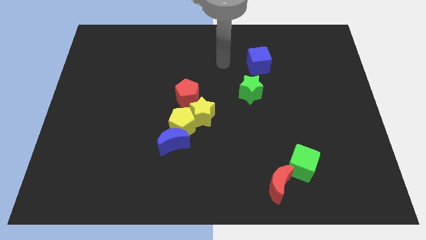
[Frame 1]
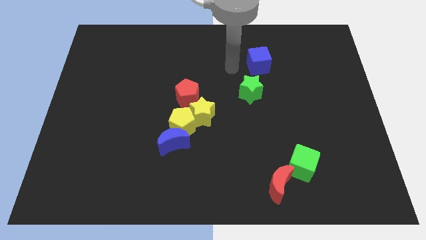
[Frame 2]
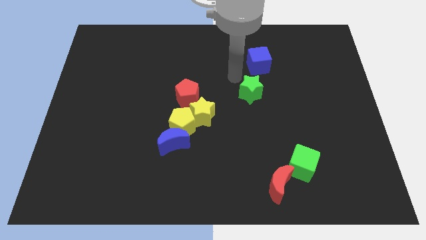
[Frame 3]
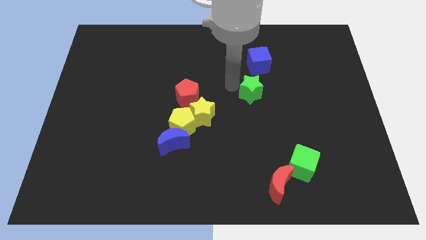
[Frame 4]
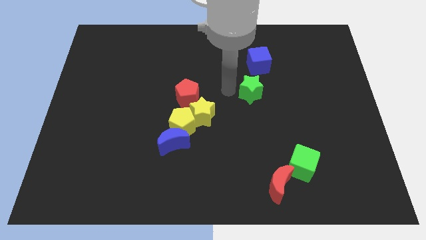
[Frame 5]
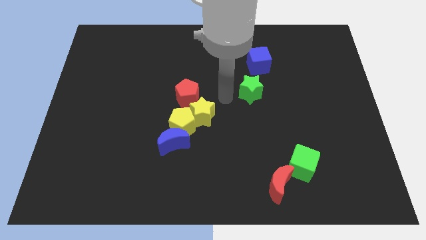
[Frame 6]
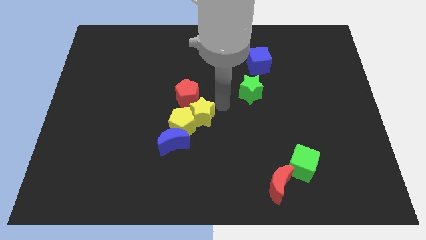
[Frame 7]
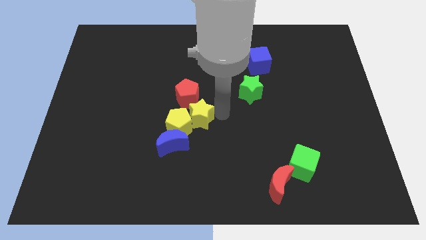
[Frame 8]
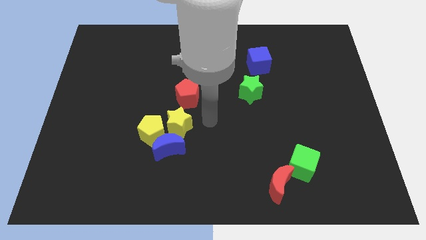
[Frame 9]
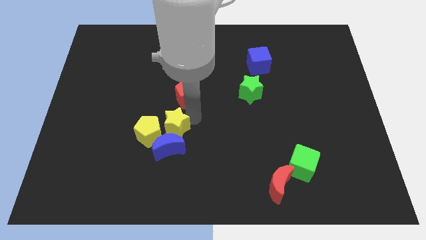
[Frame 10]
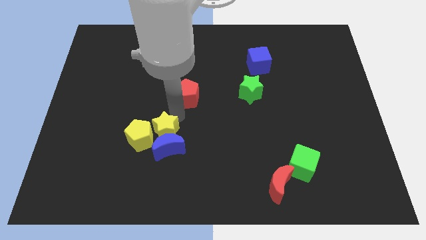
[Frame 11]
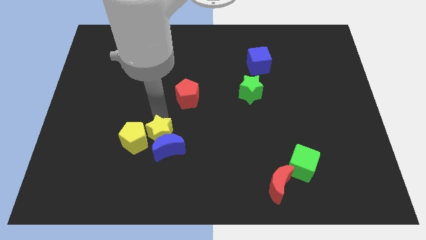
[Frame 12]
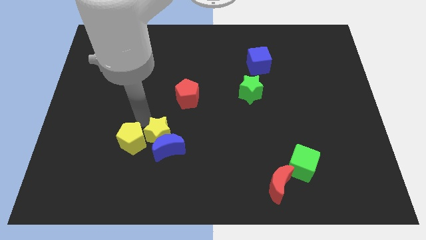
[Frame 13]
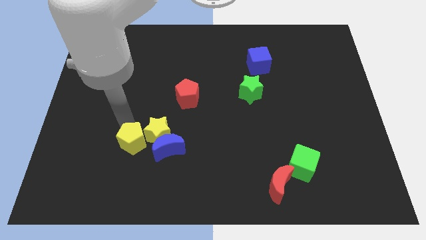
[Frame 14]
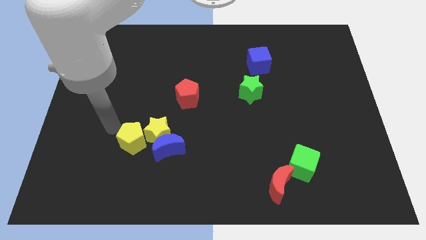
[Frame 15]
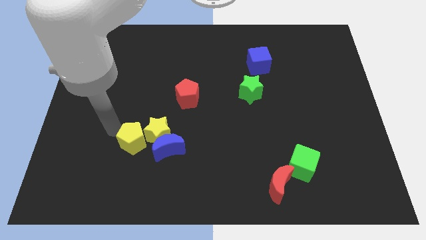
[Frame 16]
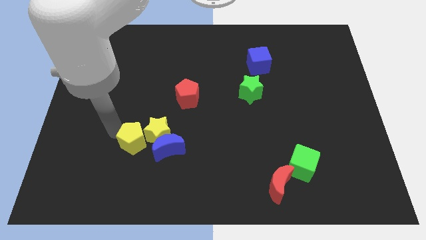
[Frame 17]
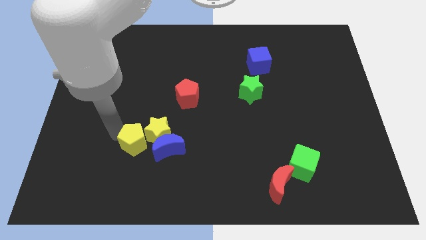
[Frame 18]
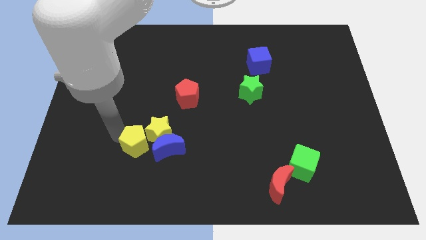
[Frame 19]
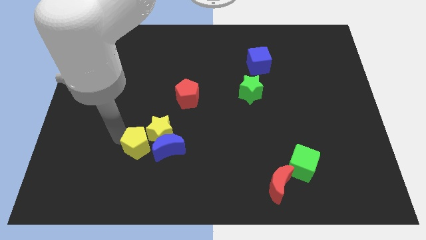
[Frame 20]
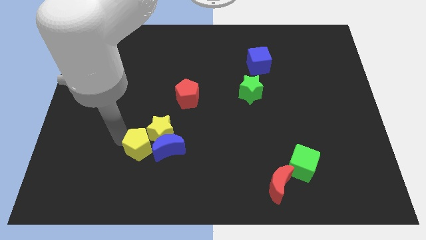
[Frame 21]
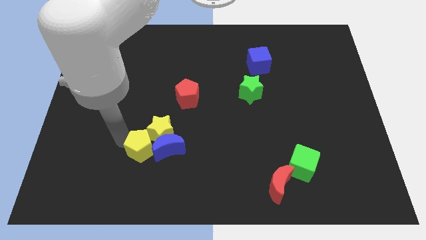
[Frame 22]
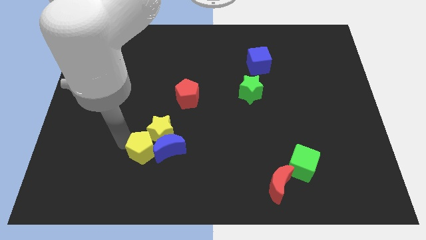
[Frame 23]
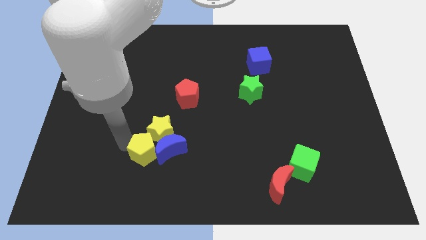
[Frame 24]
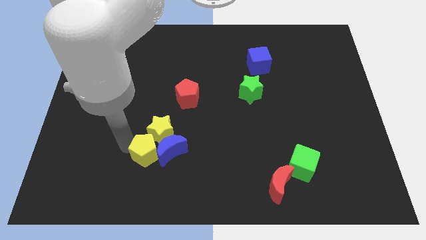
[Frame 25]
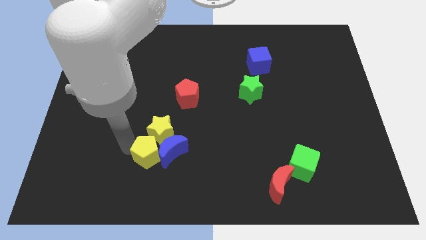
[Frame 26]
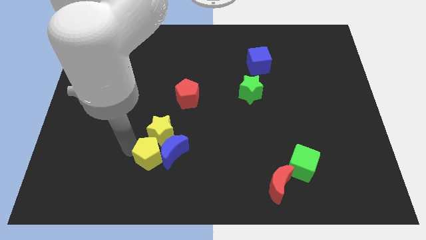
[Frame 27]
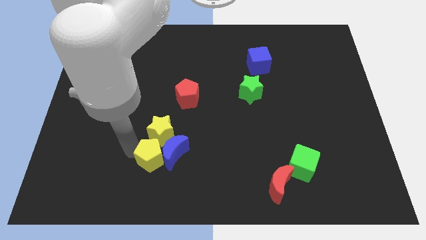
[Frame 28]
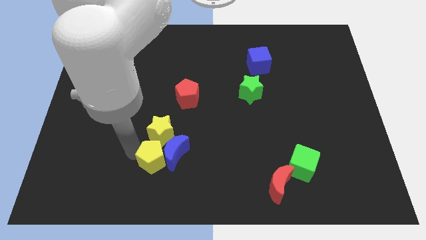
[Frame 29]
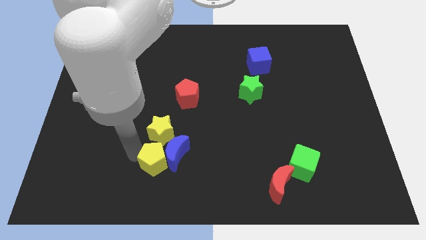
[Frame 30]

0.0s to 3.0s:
pull the yellow pentagon apart from the group of blocks

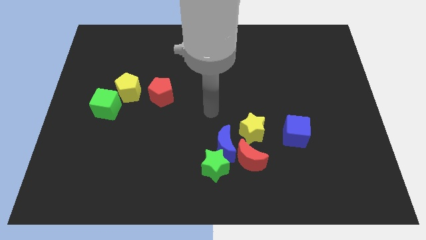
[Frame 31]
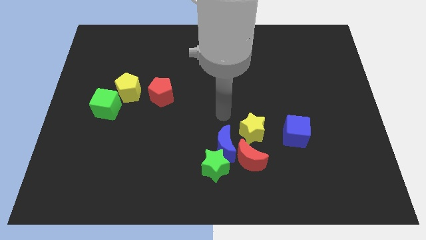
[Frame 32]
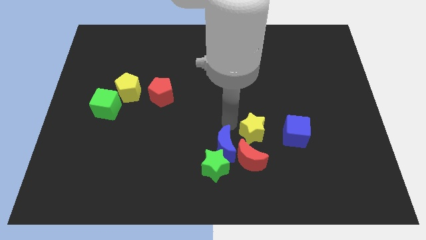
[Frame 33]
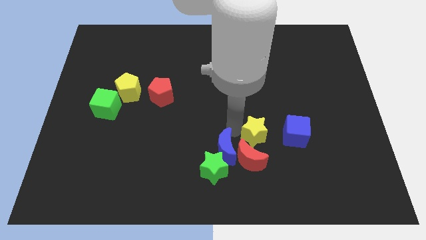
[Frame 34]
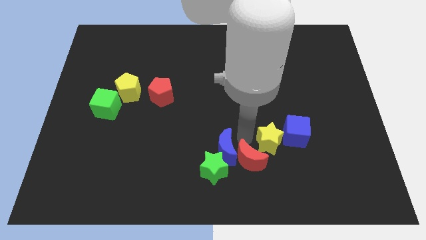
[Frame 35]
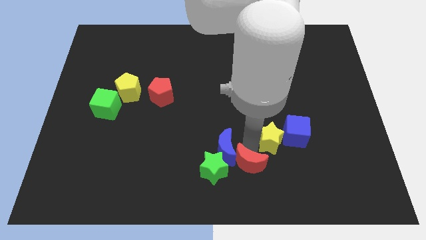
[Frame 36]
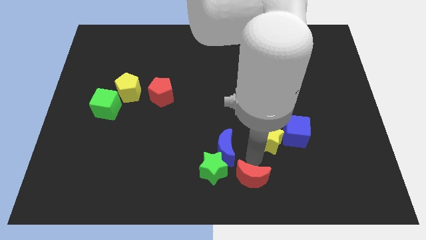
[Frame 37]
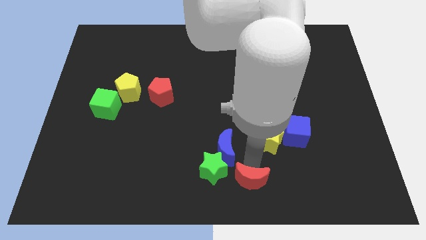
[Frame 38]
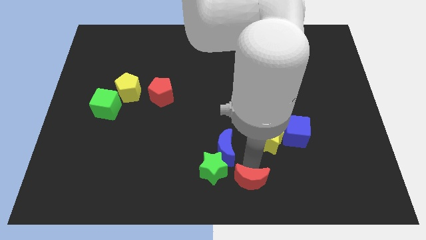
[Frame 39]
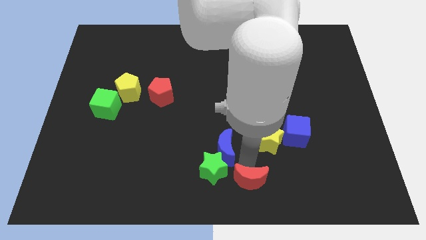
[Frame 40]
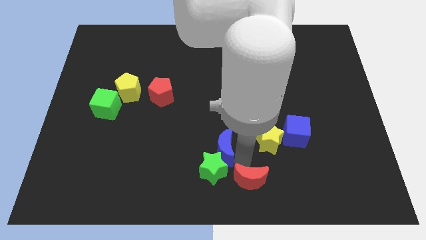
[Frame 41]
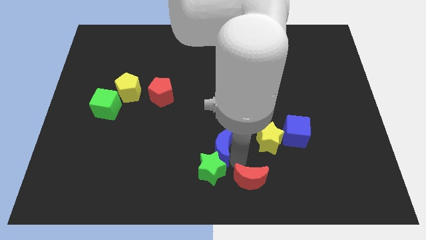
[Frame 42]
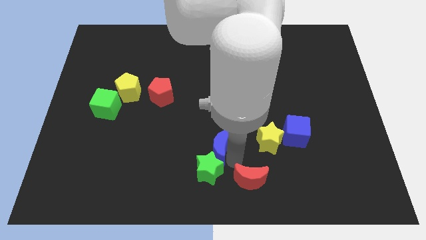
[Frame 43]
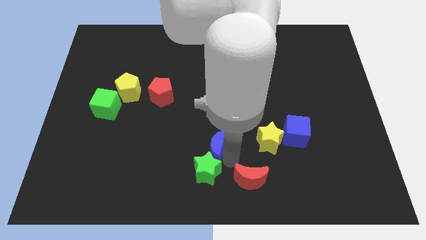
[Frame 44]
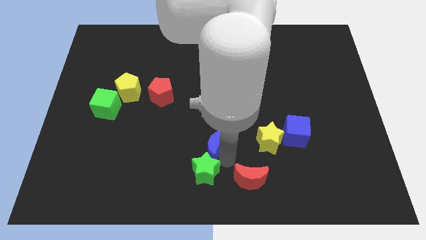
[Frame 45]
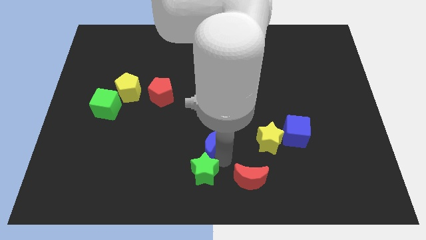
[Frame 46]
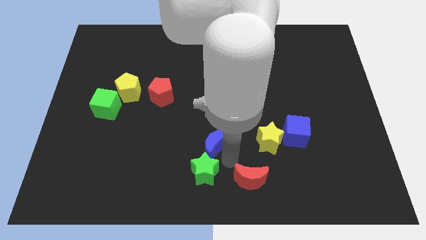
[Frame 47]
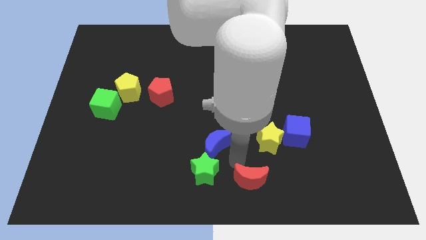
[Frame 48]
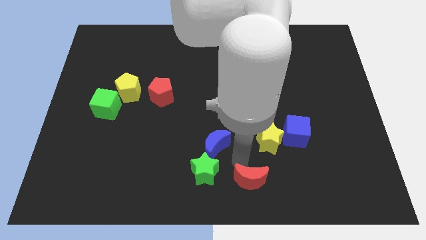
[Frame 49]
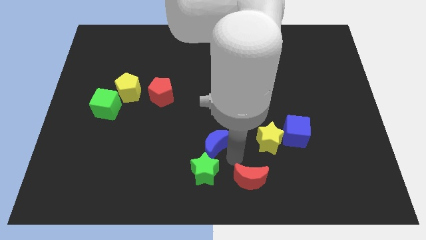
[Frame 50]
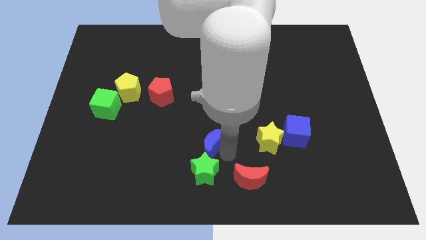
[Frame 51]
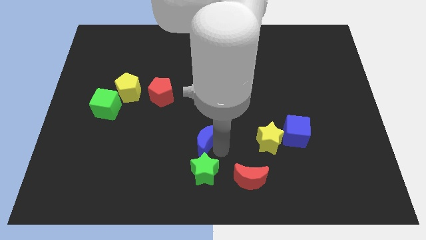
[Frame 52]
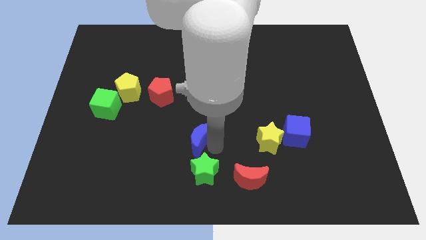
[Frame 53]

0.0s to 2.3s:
move the blue moon away from the green star, red moon, and yellow star

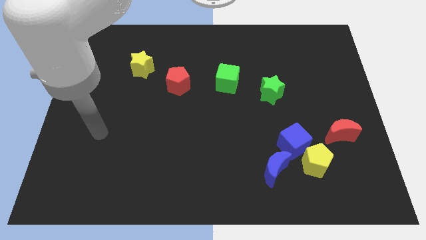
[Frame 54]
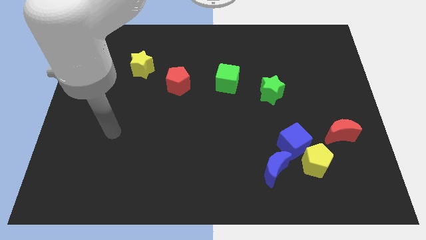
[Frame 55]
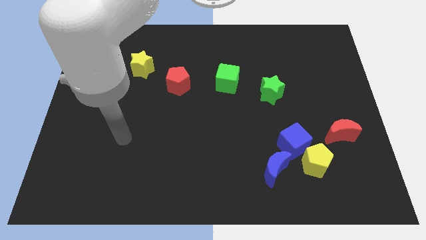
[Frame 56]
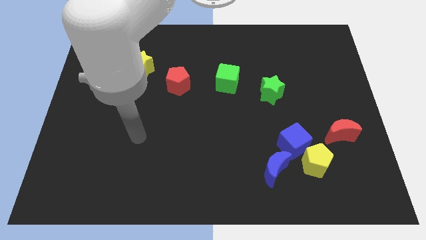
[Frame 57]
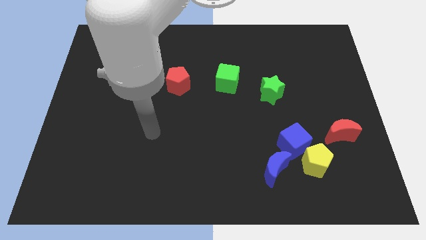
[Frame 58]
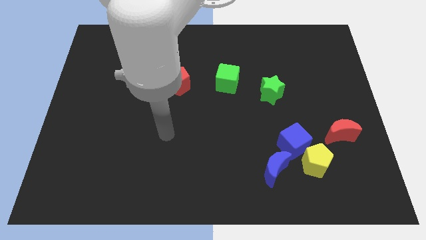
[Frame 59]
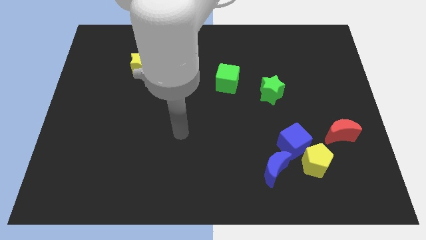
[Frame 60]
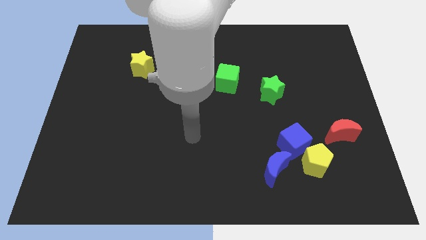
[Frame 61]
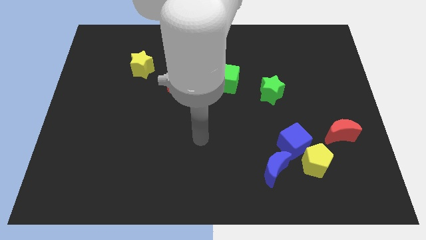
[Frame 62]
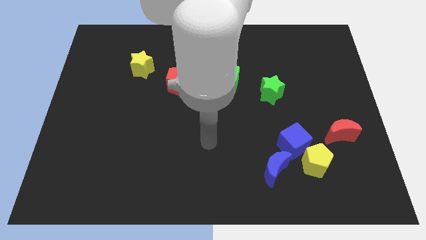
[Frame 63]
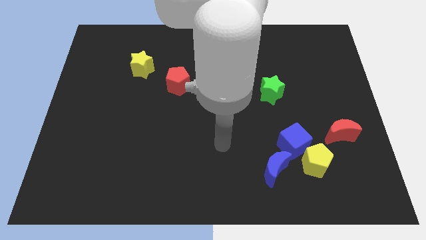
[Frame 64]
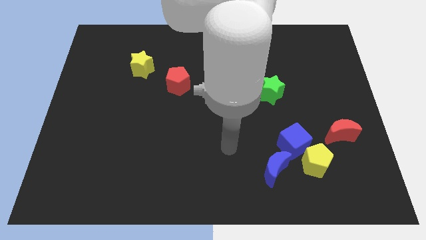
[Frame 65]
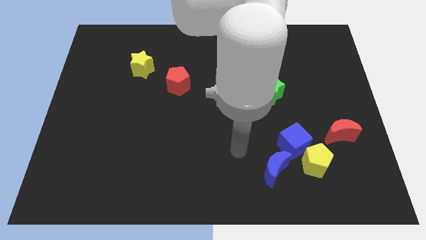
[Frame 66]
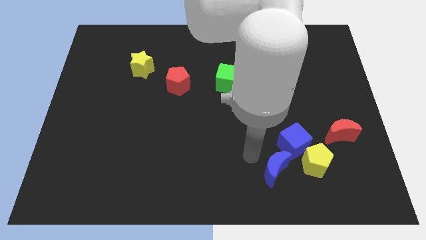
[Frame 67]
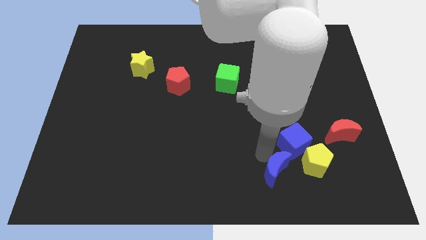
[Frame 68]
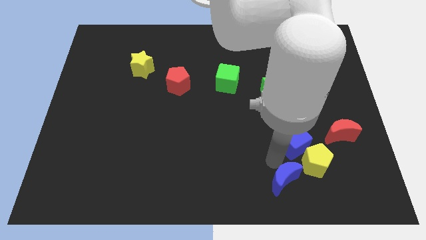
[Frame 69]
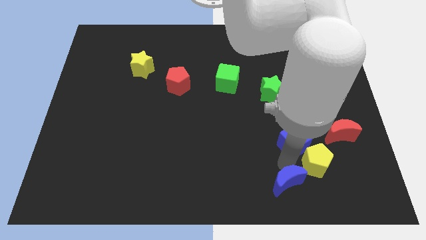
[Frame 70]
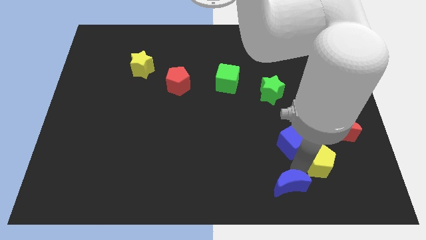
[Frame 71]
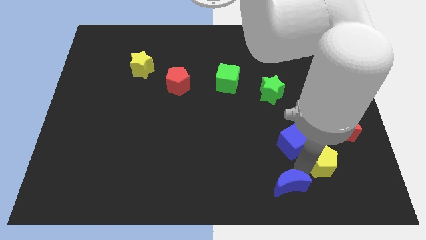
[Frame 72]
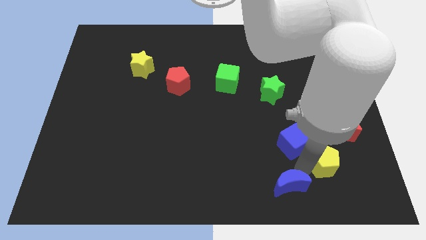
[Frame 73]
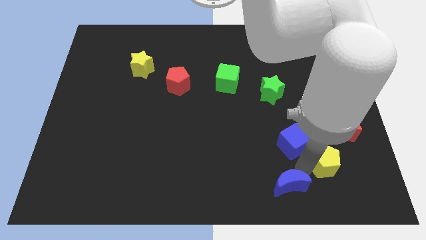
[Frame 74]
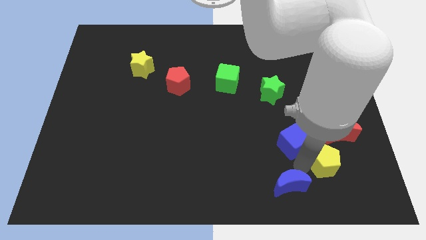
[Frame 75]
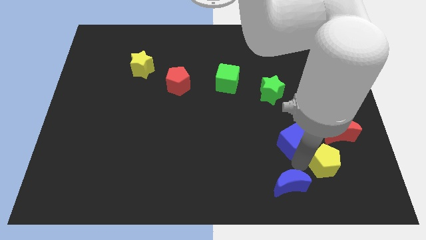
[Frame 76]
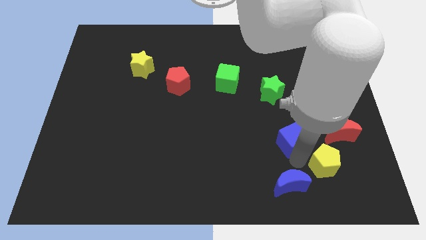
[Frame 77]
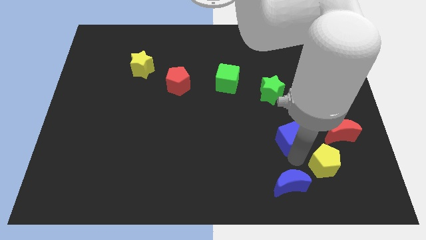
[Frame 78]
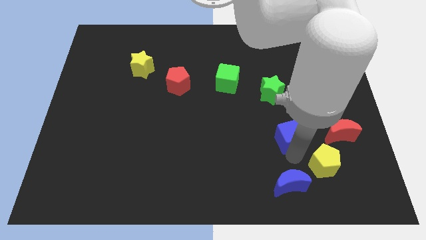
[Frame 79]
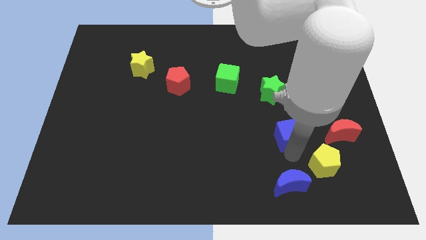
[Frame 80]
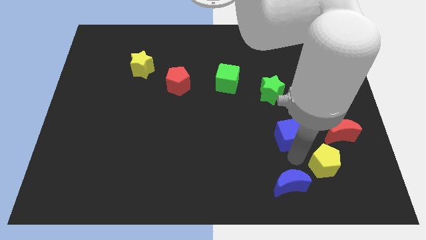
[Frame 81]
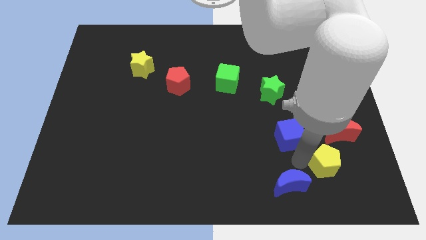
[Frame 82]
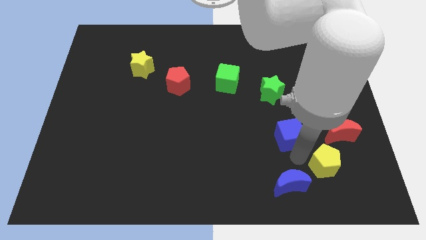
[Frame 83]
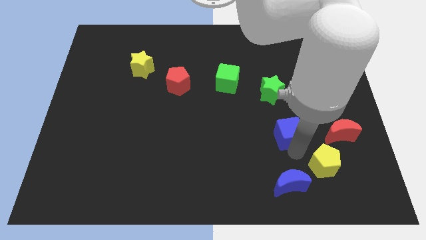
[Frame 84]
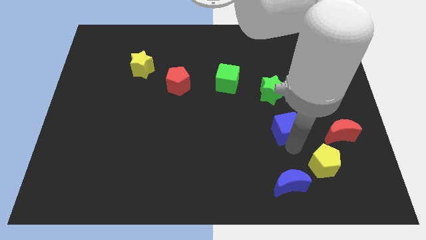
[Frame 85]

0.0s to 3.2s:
separate the blue cube from the yellow pentagon and blue moon

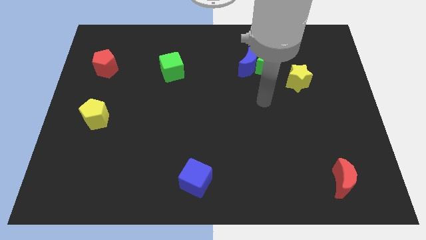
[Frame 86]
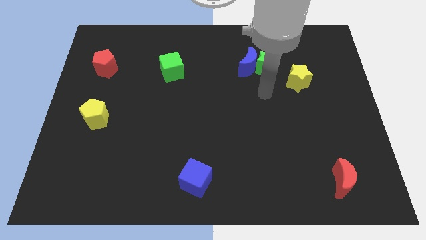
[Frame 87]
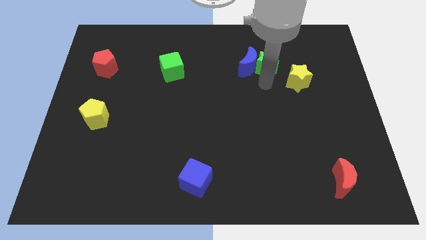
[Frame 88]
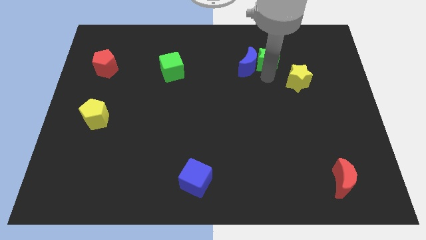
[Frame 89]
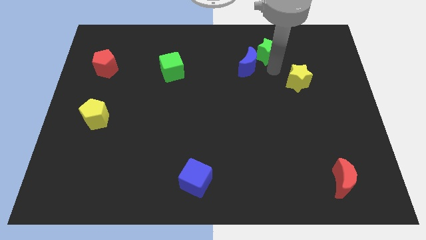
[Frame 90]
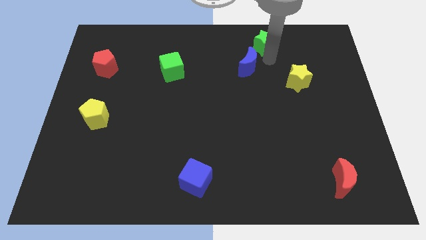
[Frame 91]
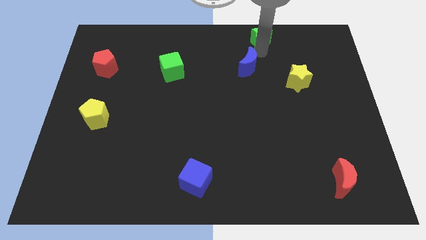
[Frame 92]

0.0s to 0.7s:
separate the blue moon from the green star

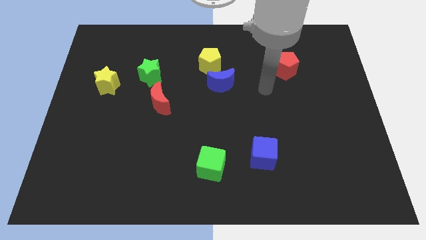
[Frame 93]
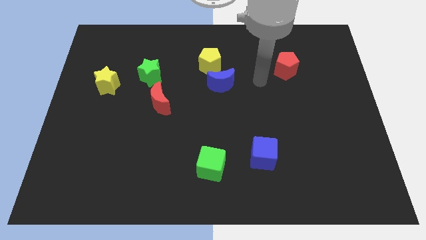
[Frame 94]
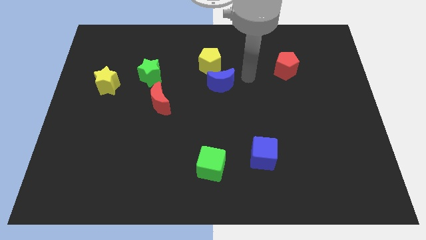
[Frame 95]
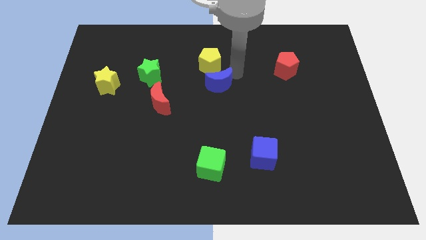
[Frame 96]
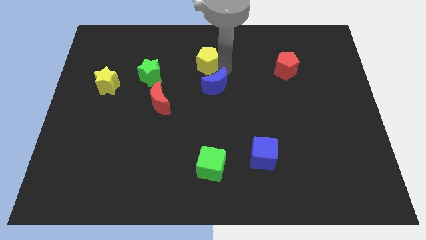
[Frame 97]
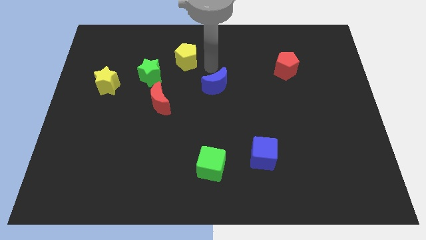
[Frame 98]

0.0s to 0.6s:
pull the blue moon apart from the yellow pentagon
